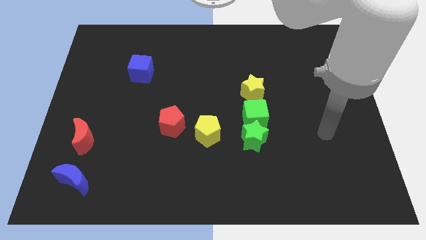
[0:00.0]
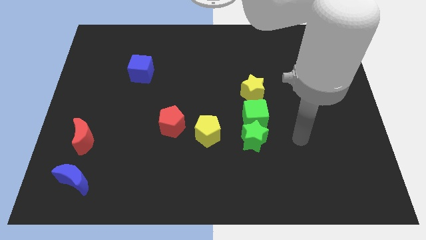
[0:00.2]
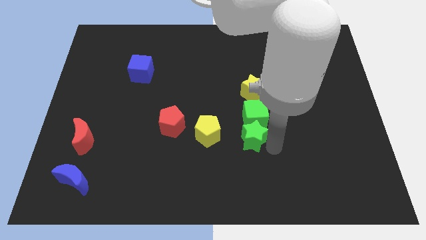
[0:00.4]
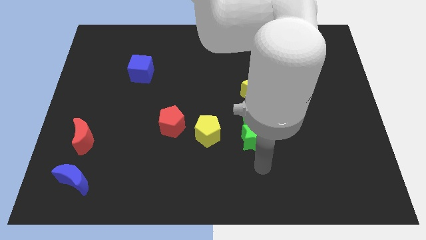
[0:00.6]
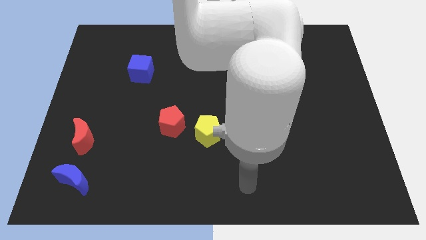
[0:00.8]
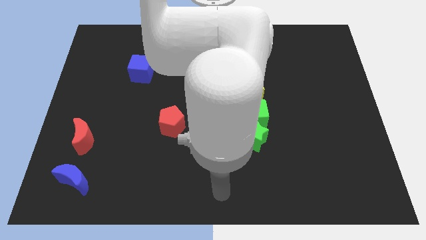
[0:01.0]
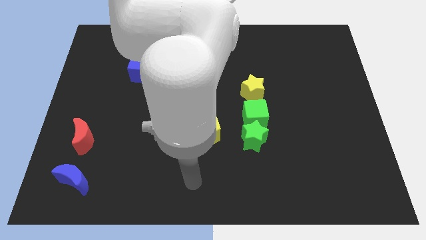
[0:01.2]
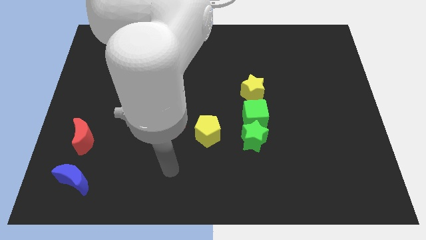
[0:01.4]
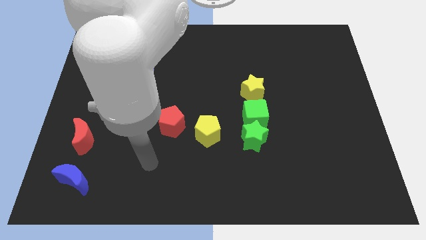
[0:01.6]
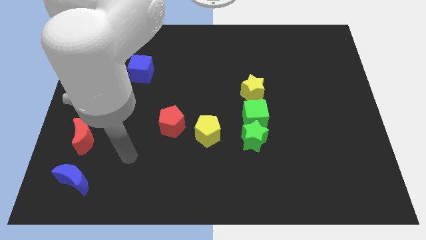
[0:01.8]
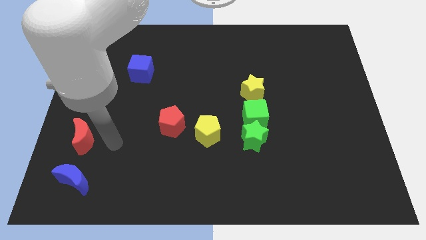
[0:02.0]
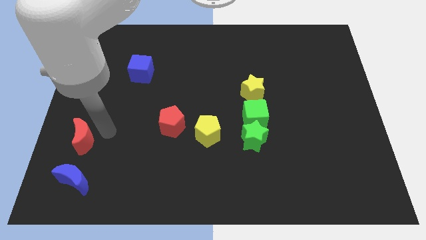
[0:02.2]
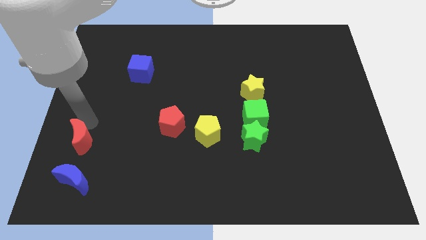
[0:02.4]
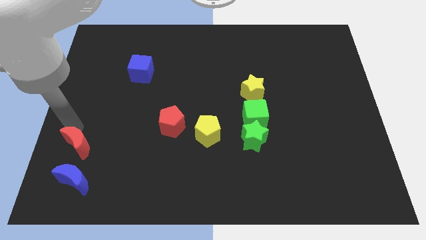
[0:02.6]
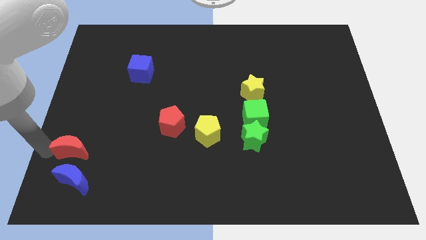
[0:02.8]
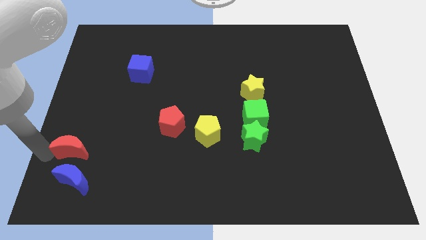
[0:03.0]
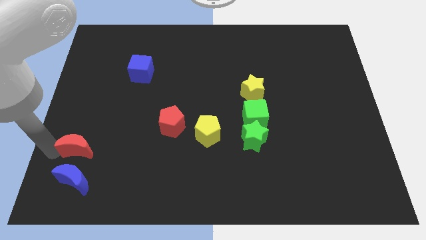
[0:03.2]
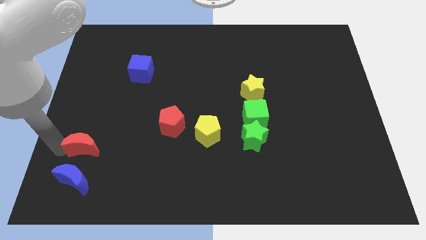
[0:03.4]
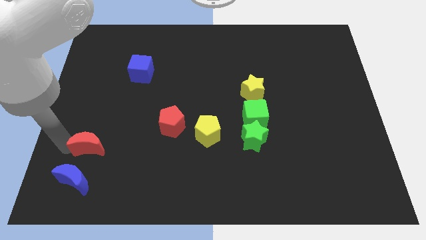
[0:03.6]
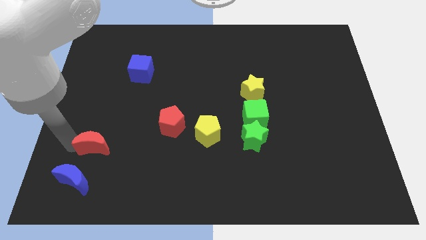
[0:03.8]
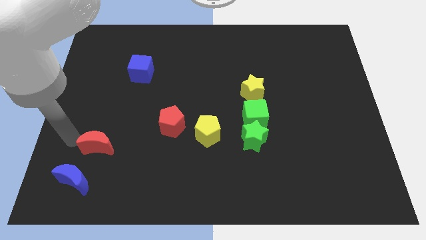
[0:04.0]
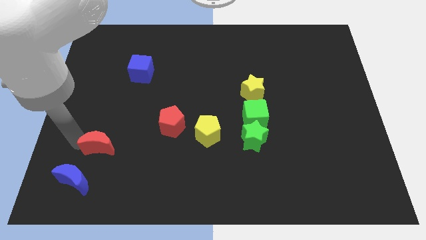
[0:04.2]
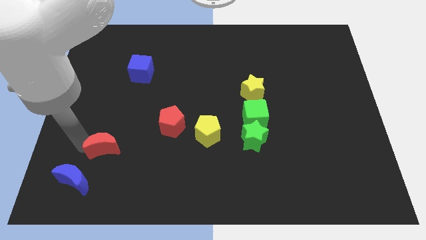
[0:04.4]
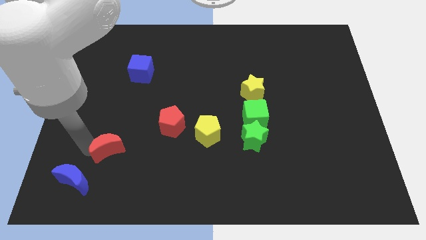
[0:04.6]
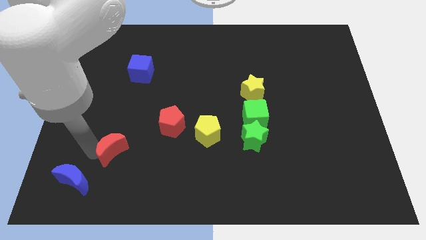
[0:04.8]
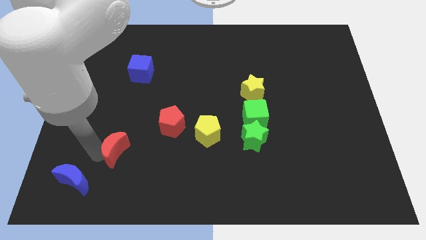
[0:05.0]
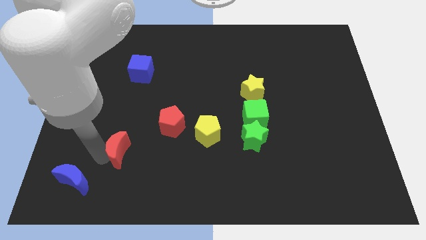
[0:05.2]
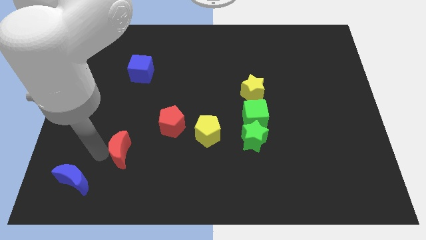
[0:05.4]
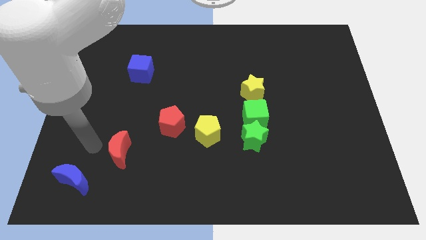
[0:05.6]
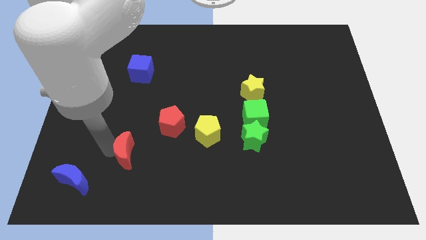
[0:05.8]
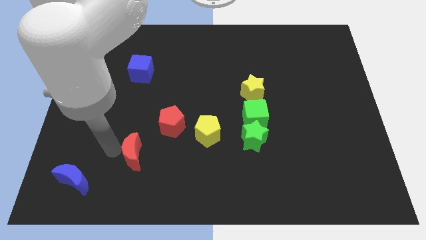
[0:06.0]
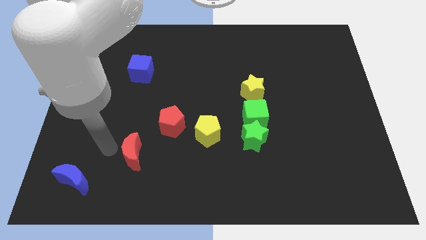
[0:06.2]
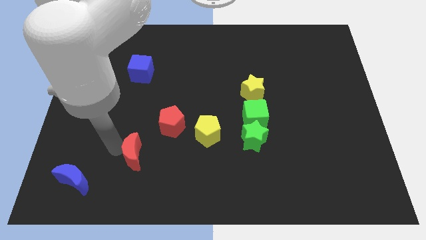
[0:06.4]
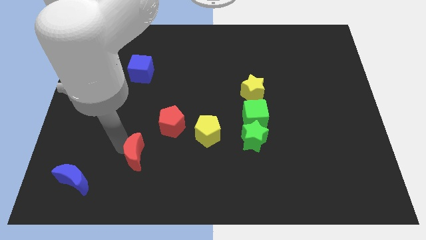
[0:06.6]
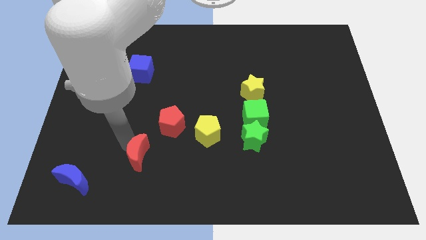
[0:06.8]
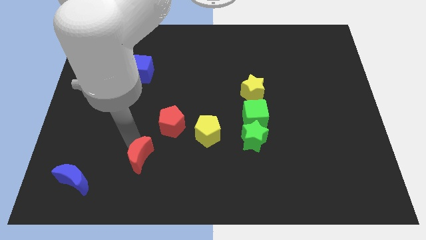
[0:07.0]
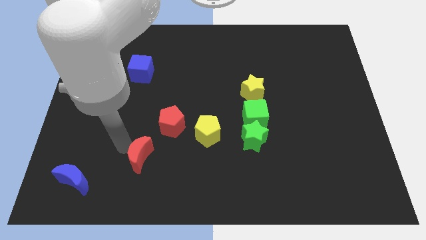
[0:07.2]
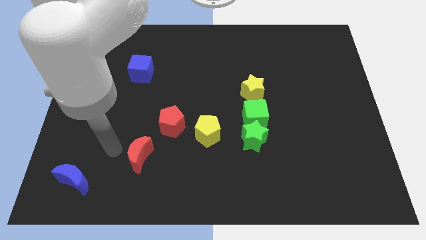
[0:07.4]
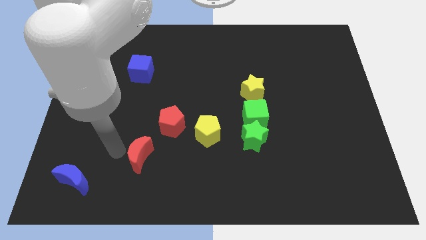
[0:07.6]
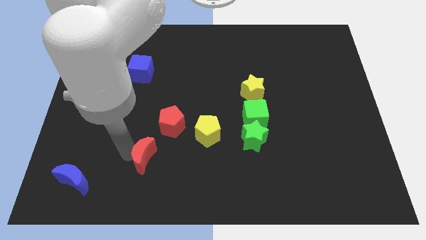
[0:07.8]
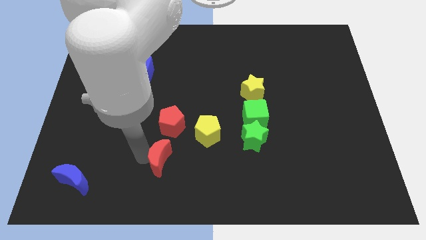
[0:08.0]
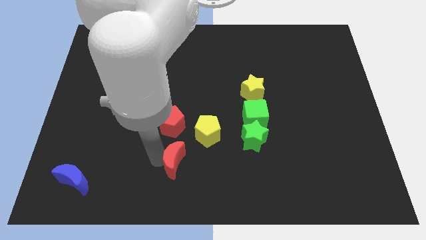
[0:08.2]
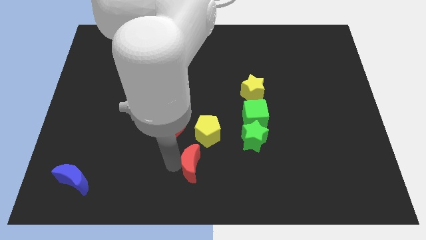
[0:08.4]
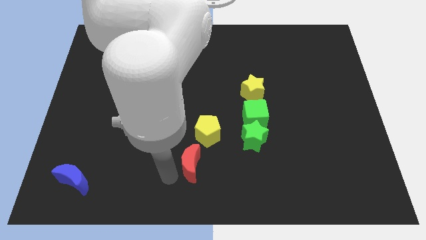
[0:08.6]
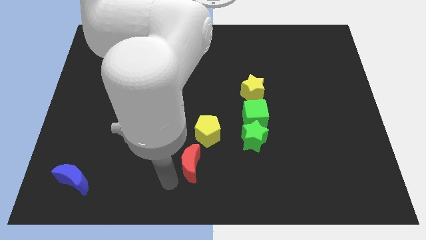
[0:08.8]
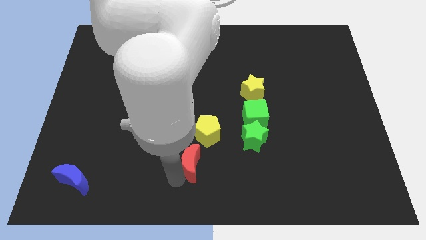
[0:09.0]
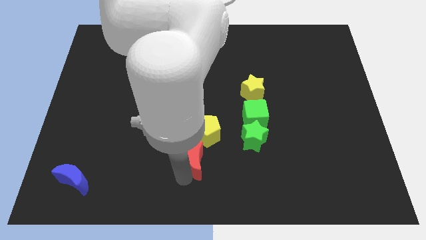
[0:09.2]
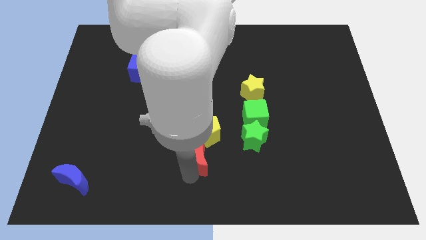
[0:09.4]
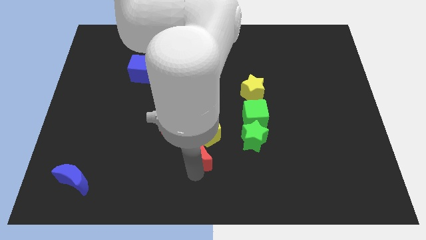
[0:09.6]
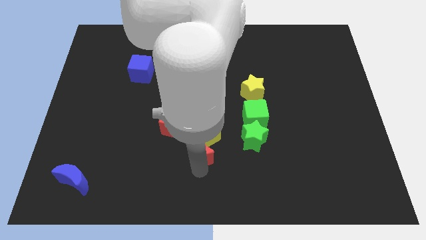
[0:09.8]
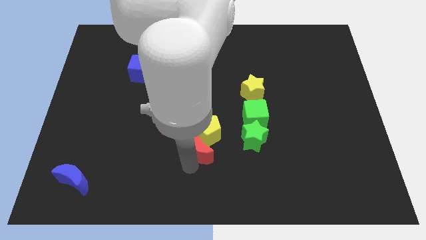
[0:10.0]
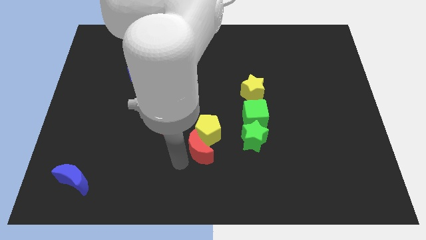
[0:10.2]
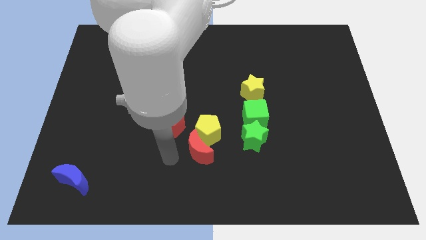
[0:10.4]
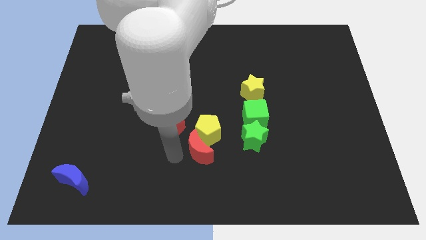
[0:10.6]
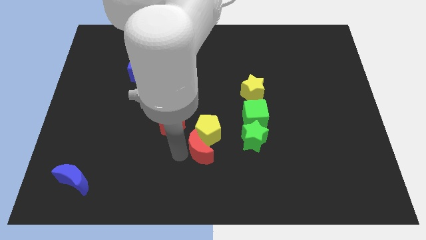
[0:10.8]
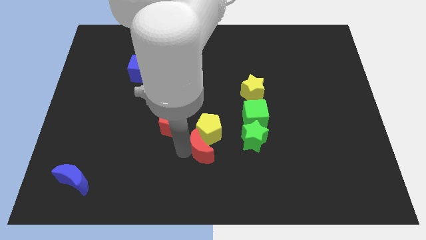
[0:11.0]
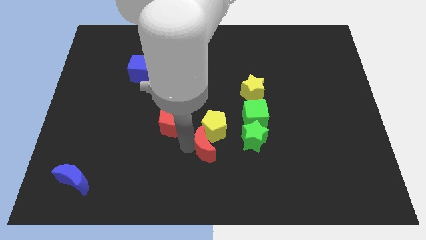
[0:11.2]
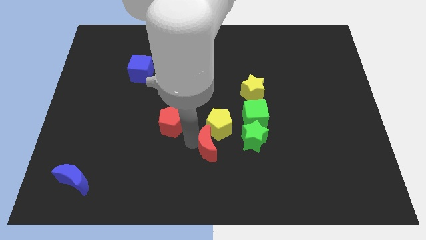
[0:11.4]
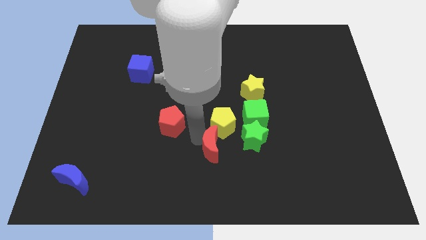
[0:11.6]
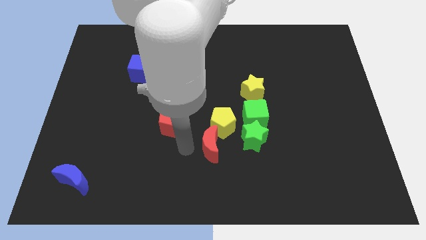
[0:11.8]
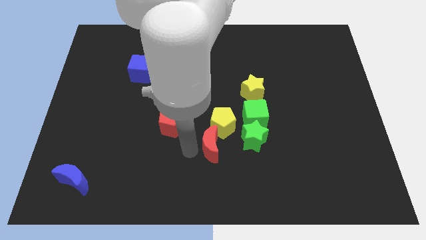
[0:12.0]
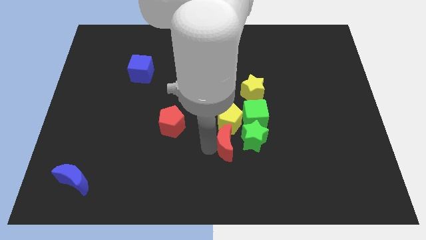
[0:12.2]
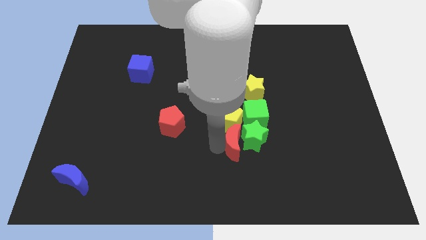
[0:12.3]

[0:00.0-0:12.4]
push the red moon close to the green star

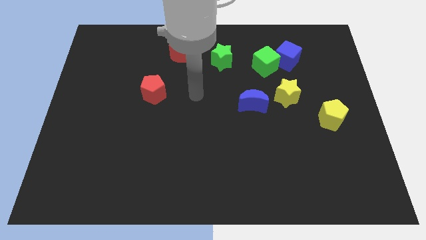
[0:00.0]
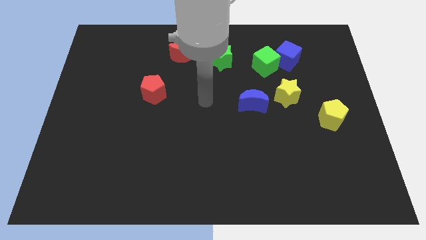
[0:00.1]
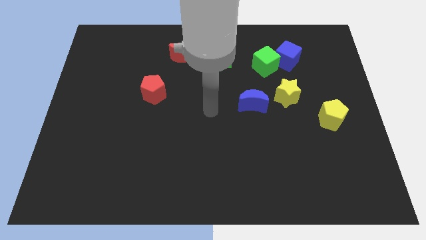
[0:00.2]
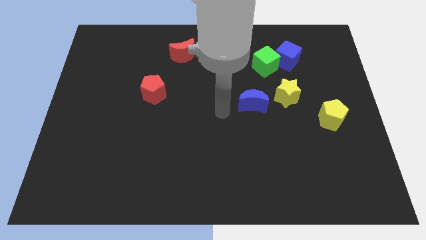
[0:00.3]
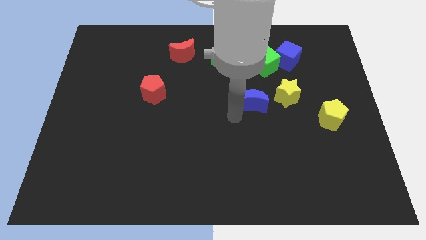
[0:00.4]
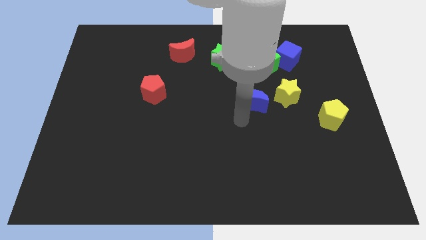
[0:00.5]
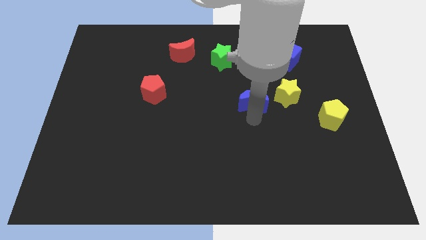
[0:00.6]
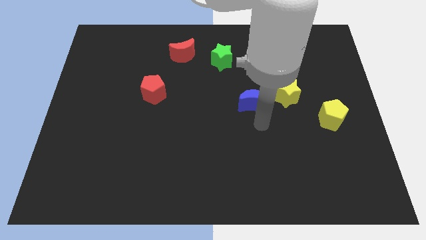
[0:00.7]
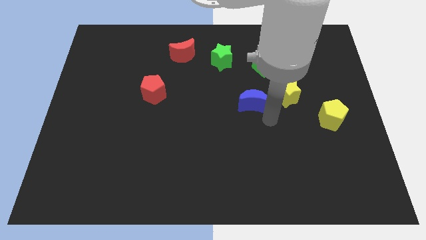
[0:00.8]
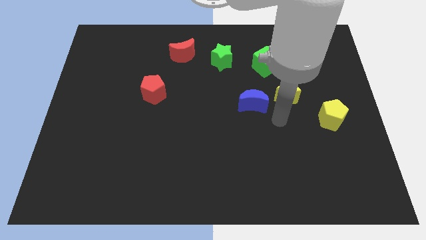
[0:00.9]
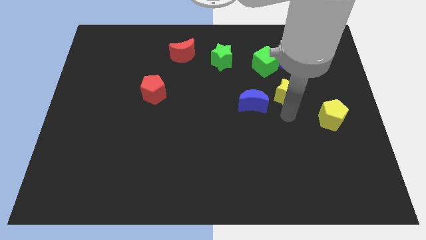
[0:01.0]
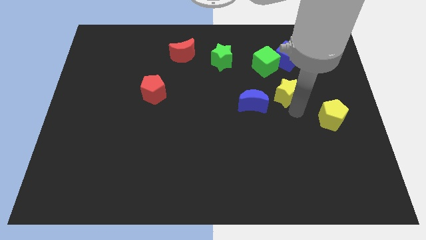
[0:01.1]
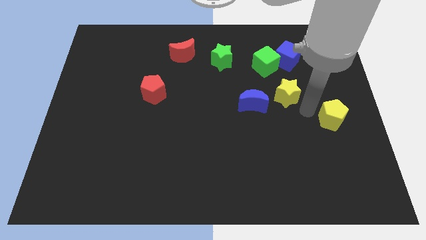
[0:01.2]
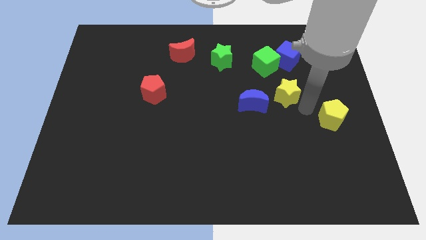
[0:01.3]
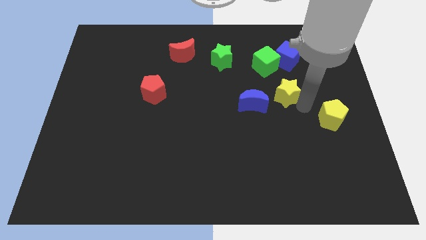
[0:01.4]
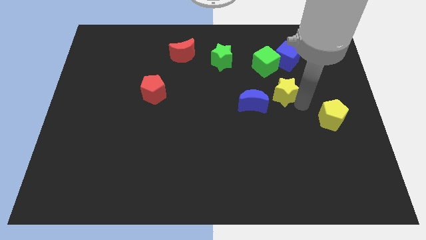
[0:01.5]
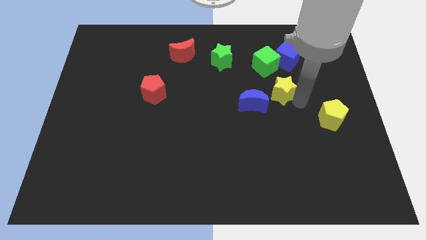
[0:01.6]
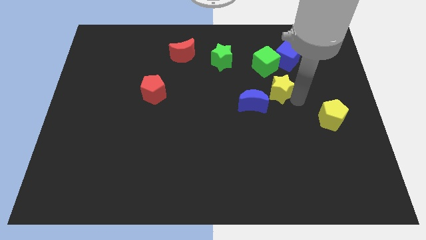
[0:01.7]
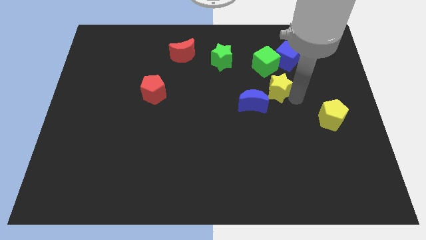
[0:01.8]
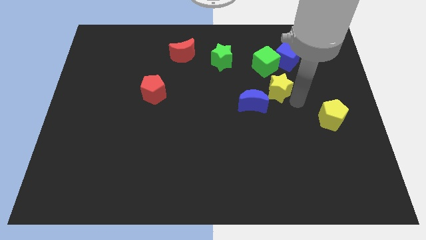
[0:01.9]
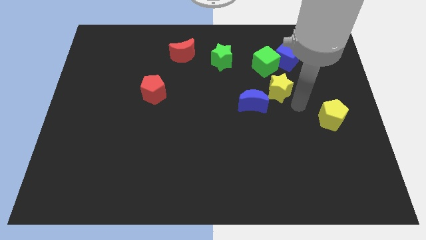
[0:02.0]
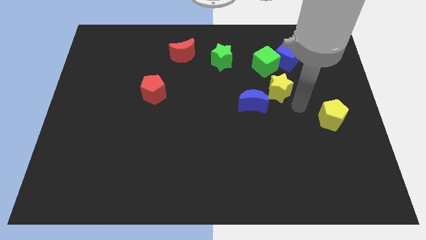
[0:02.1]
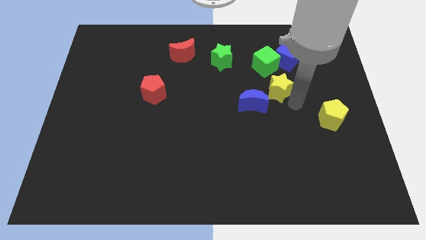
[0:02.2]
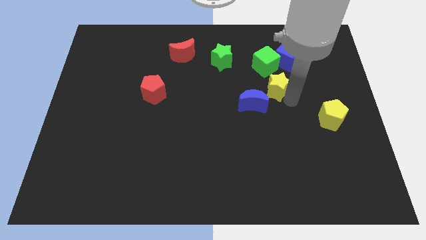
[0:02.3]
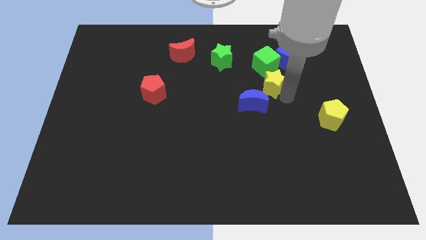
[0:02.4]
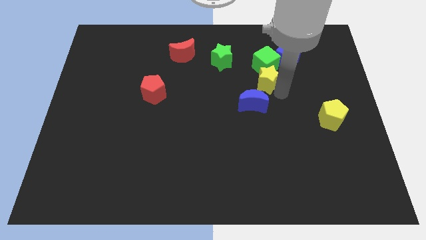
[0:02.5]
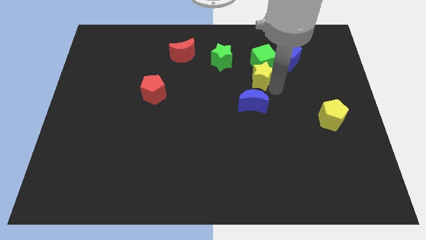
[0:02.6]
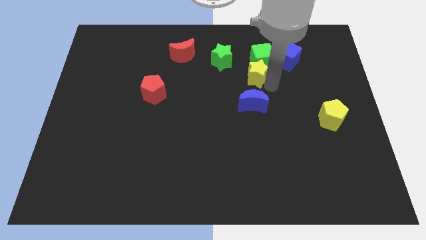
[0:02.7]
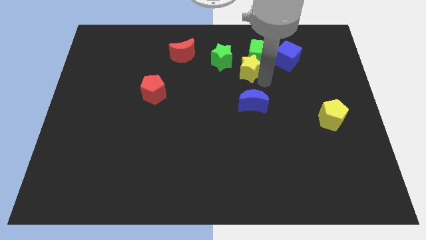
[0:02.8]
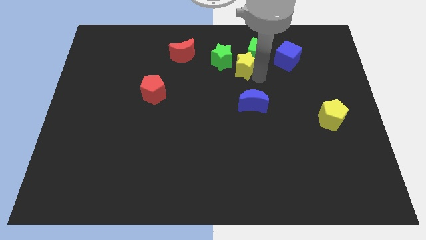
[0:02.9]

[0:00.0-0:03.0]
slide the yellow star close to the green star
